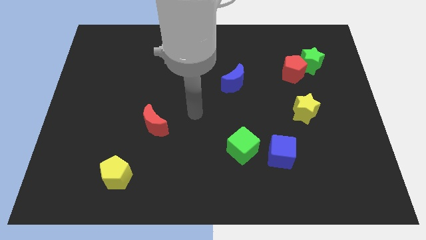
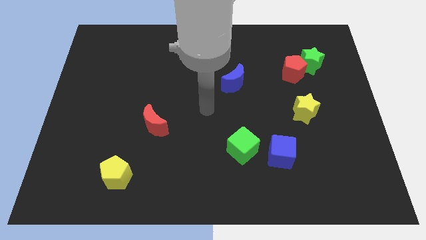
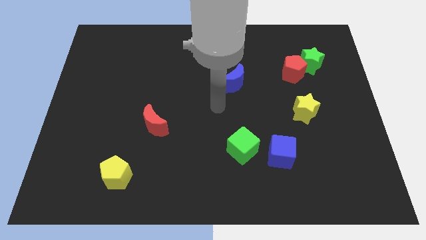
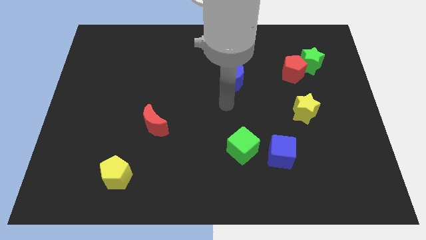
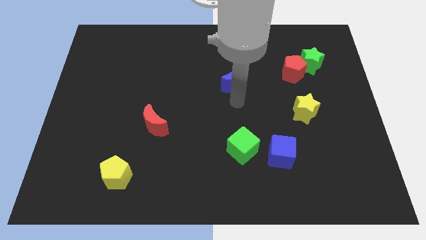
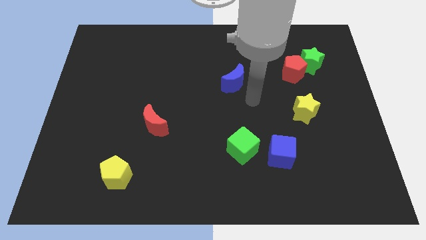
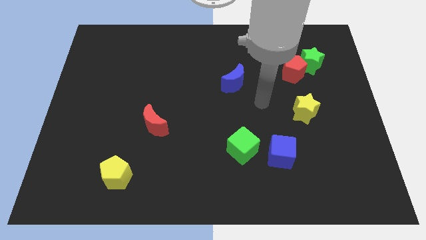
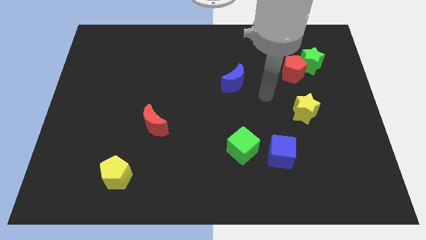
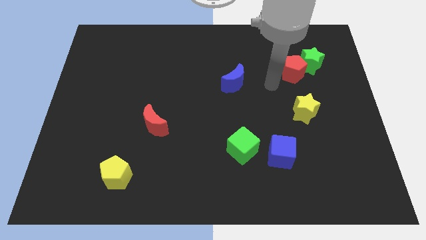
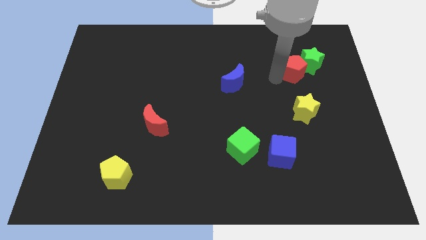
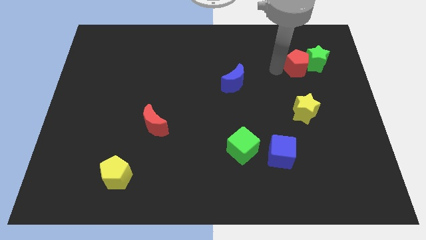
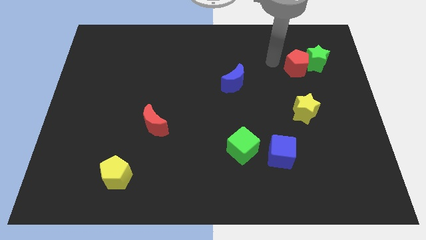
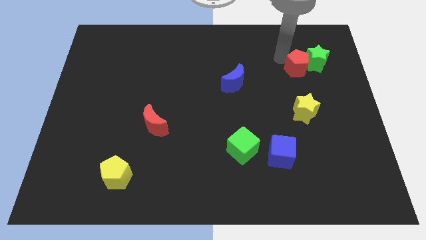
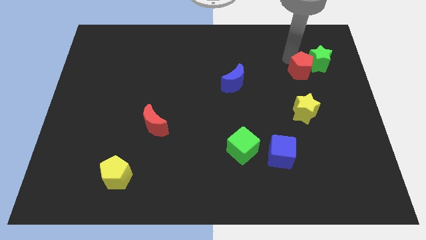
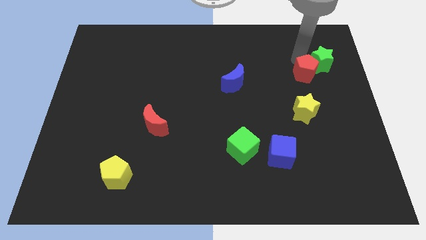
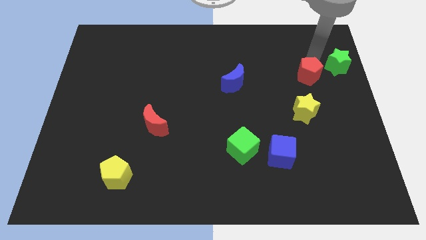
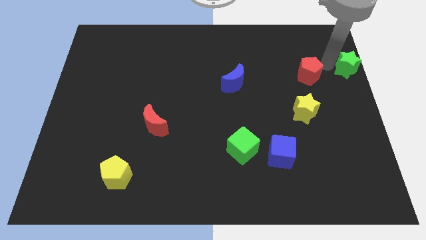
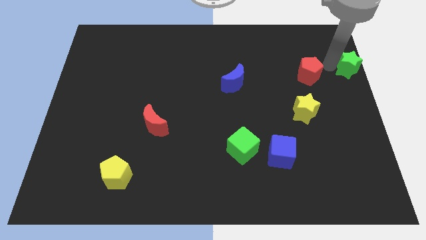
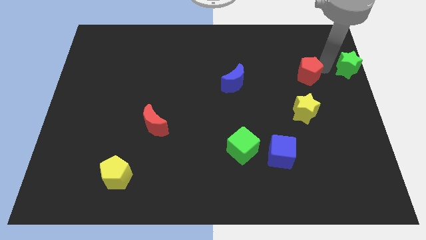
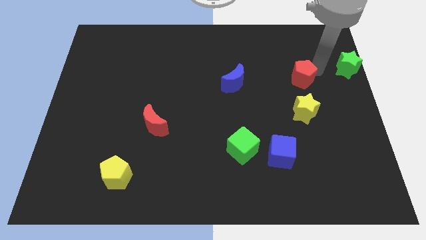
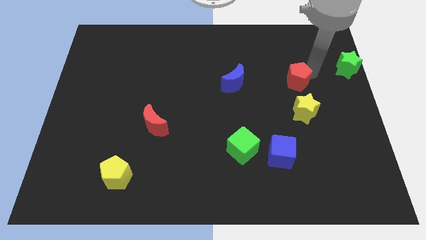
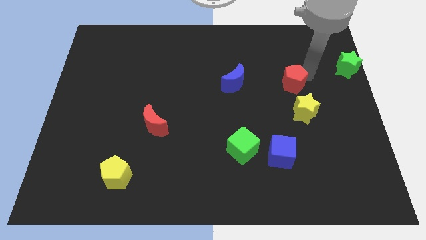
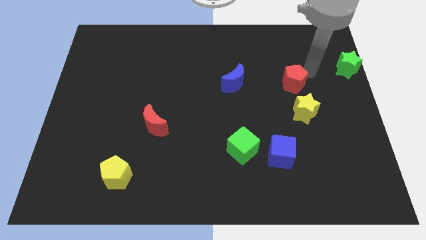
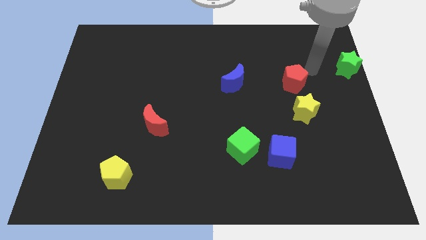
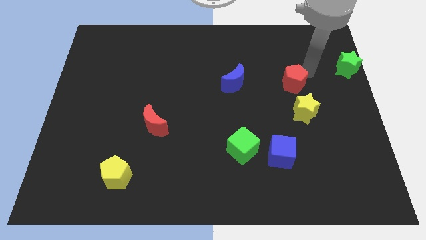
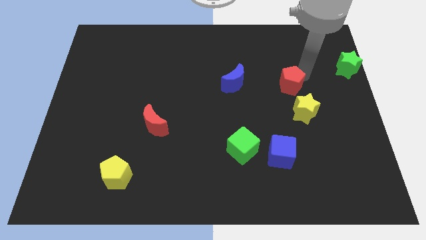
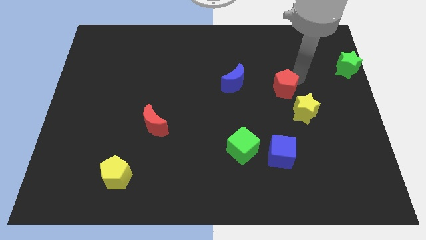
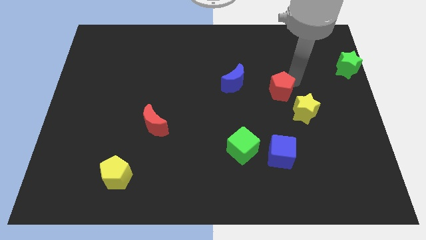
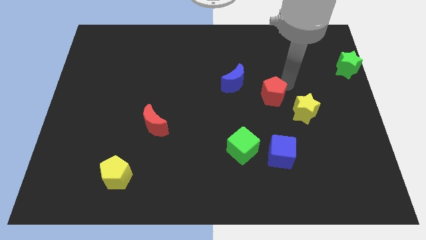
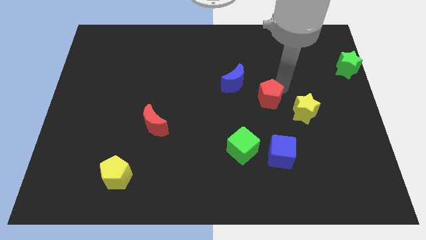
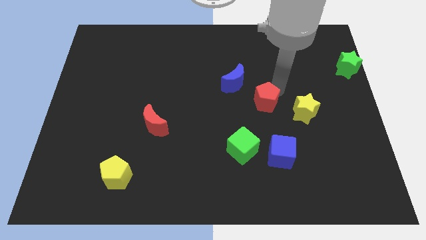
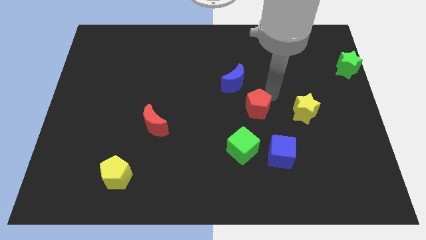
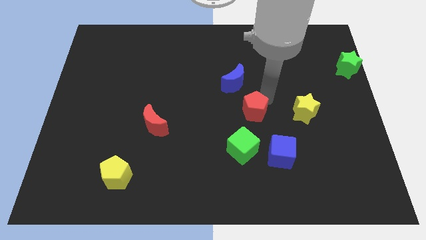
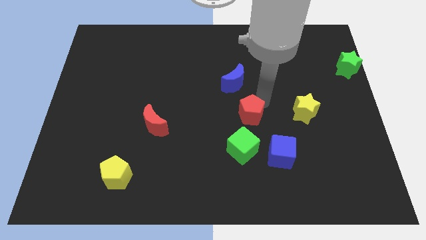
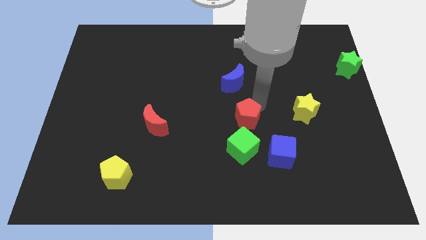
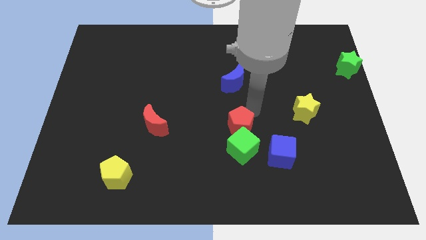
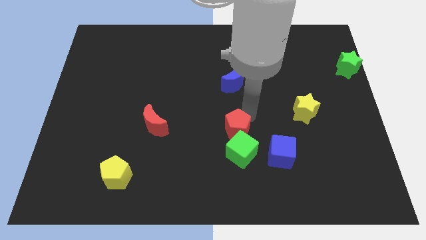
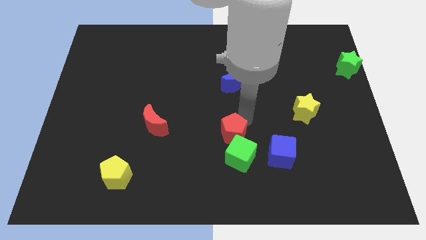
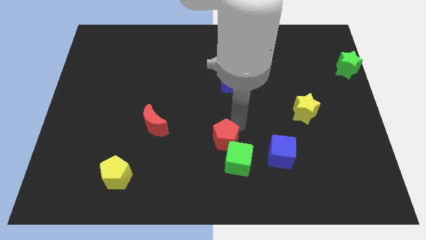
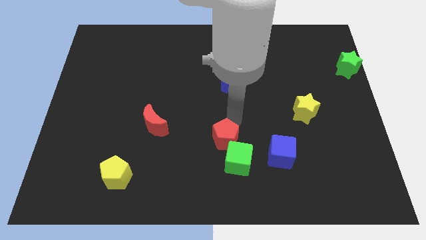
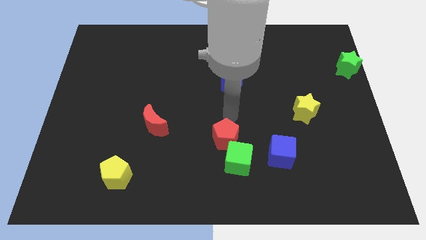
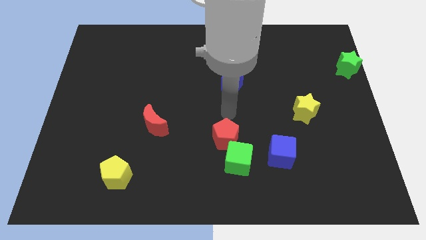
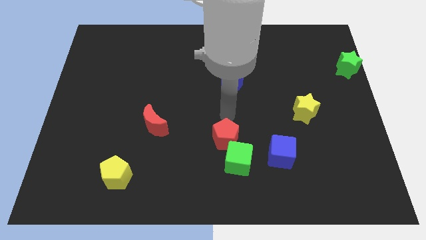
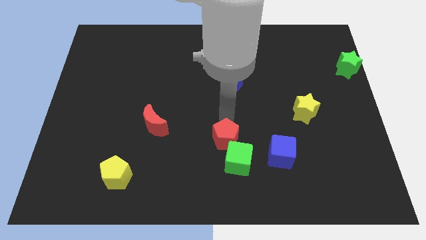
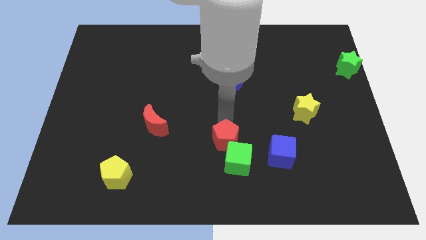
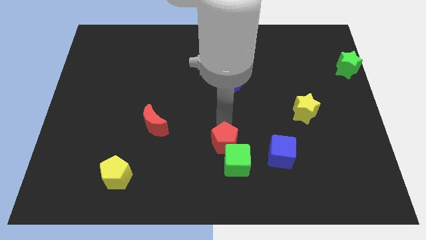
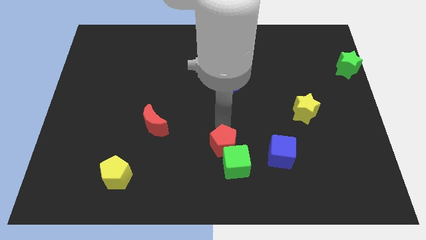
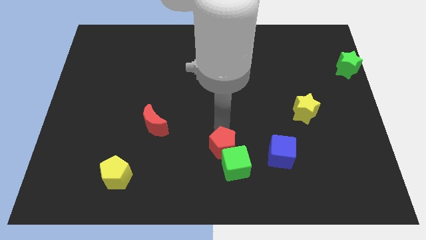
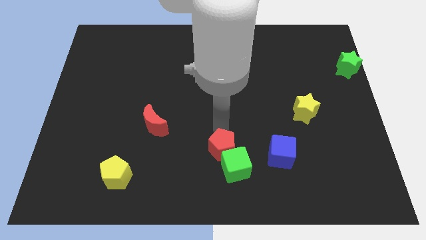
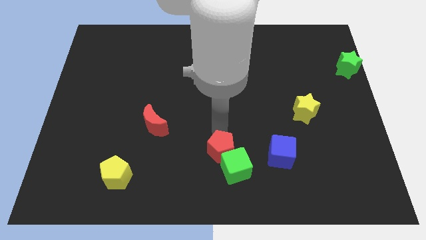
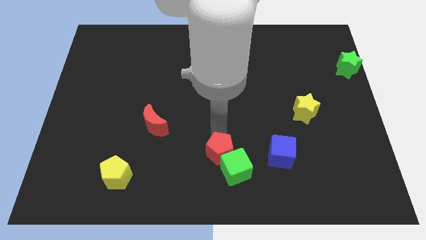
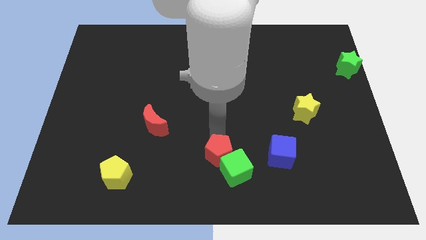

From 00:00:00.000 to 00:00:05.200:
put the red pentagon to the bottom

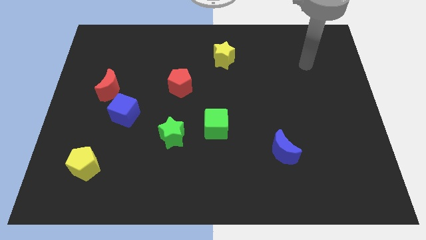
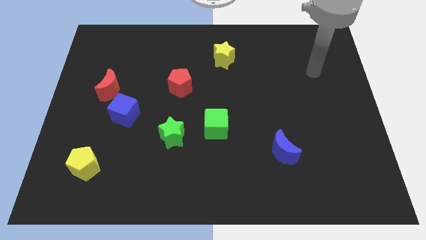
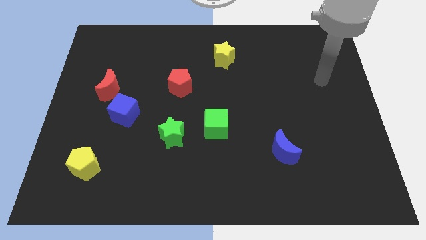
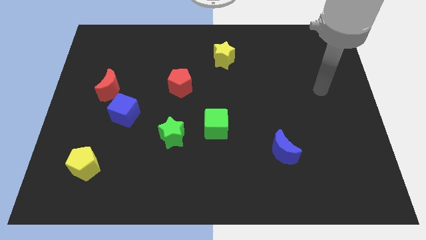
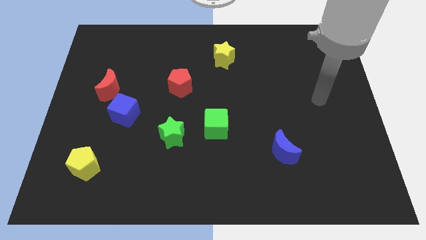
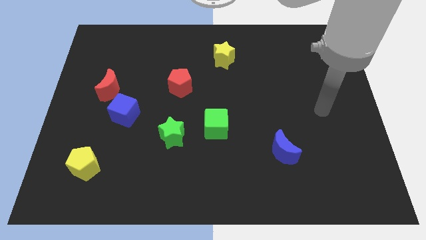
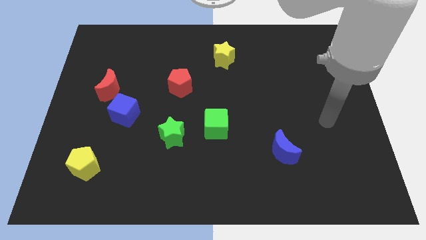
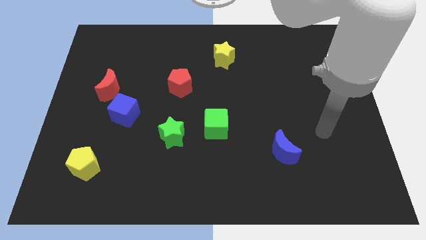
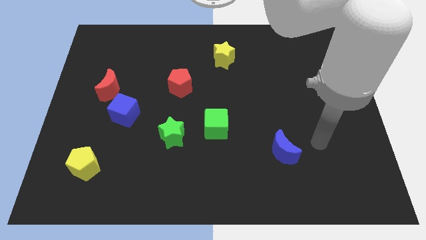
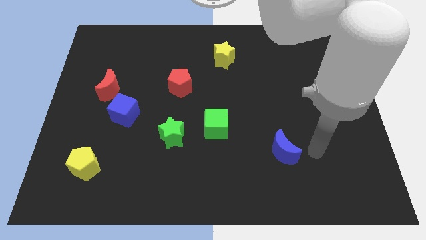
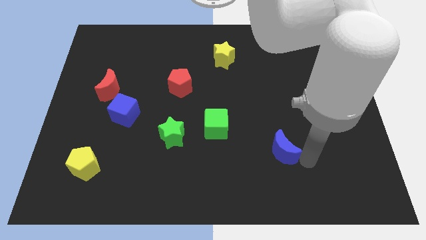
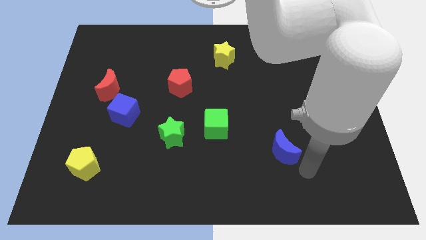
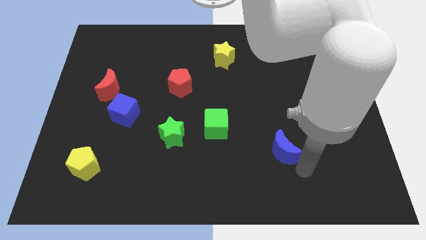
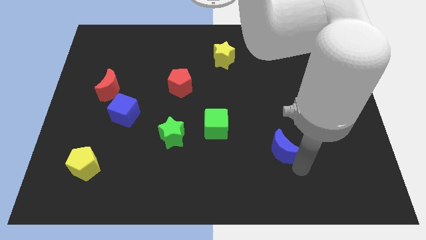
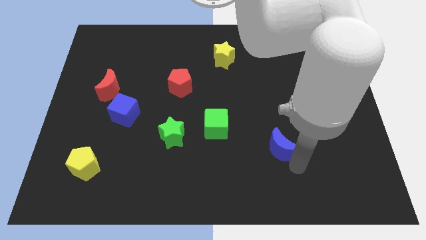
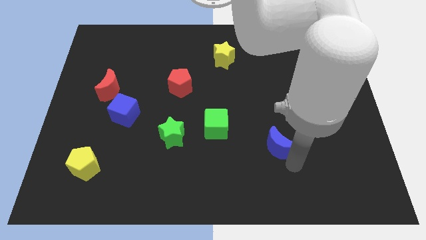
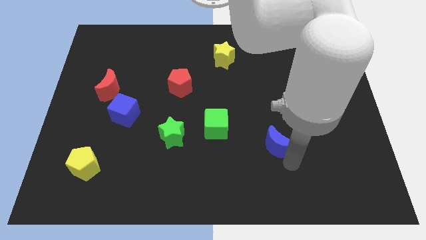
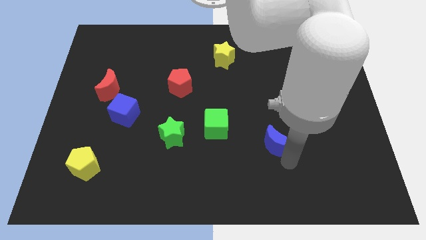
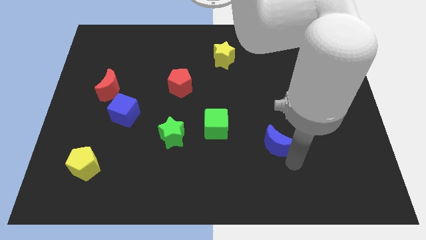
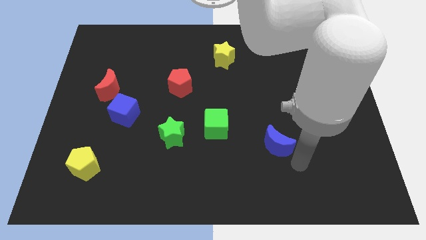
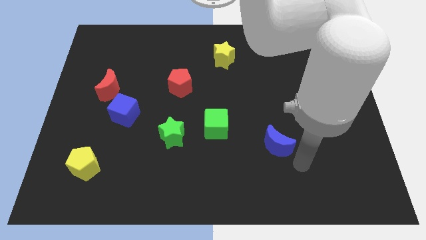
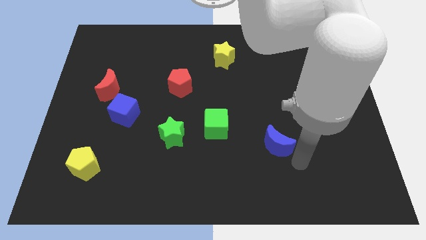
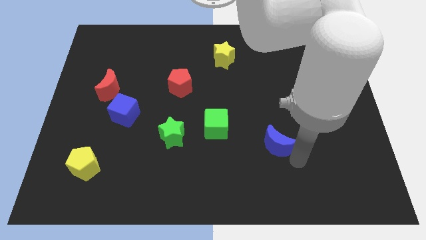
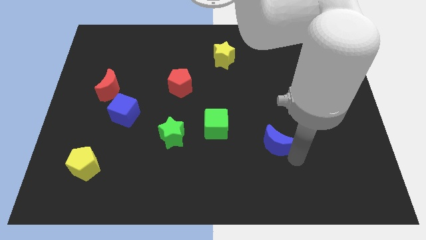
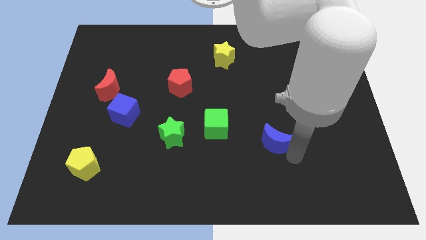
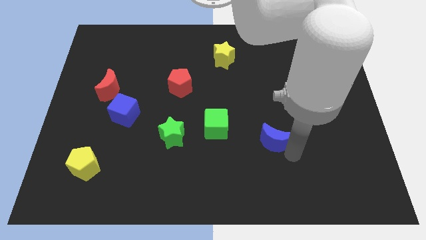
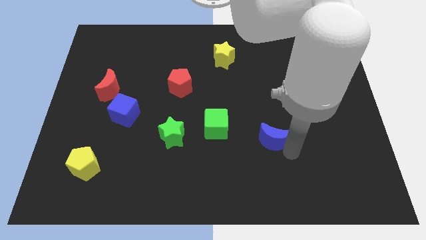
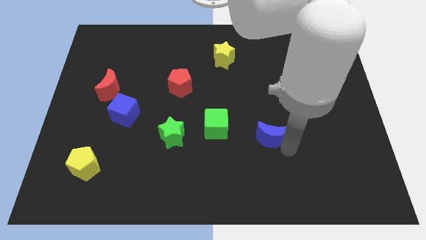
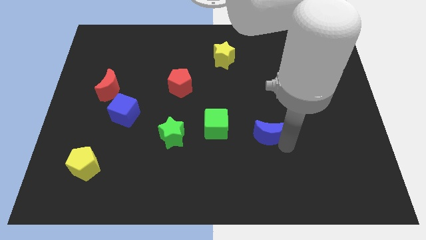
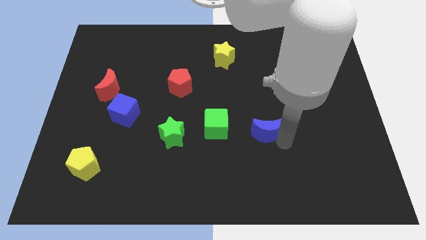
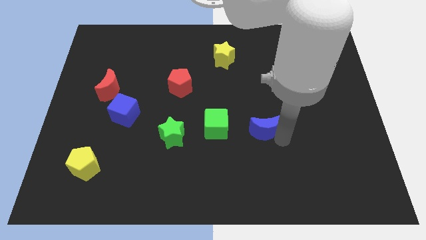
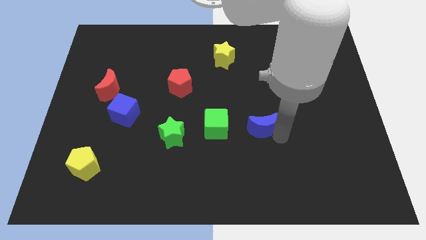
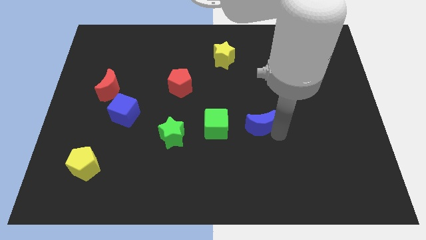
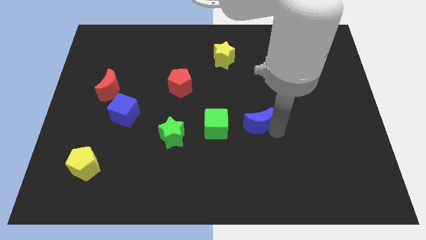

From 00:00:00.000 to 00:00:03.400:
move the blue moon to the center of the board
